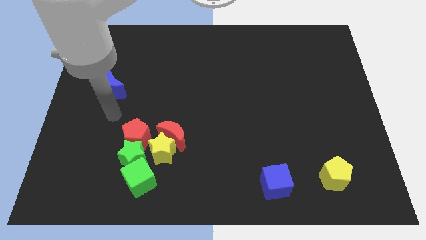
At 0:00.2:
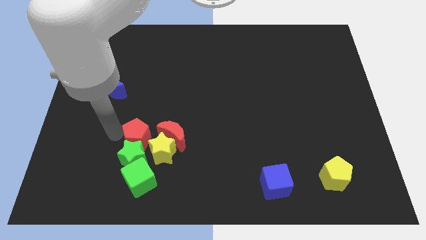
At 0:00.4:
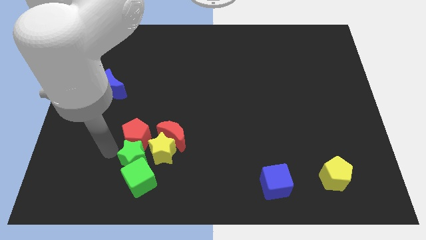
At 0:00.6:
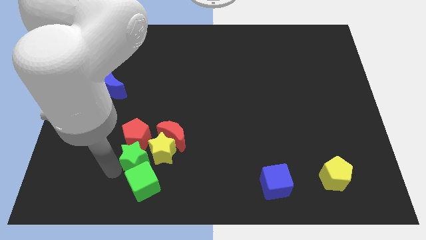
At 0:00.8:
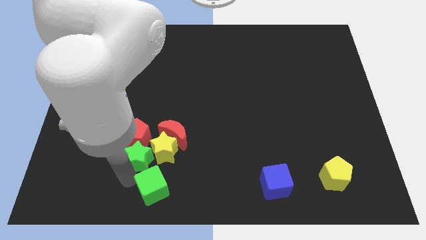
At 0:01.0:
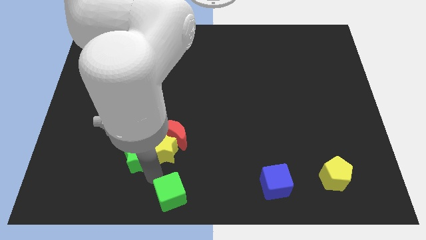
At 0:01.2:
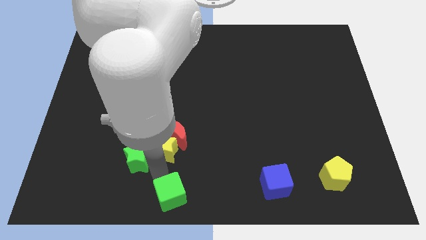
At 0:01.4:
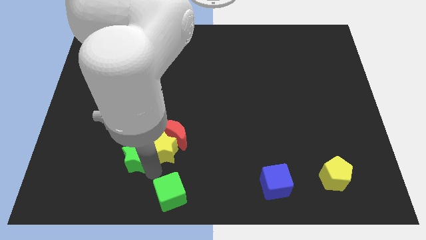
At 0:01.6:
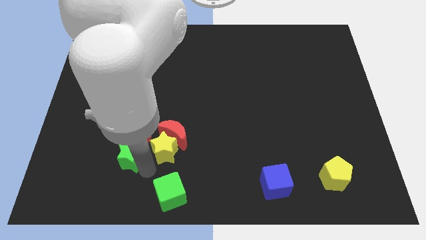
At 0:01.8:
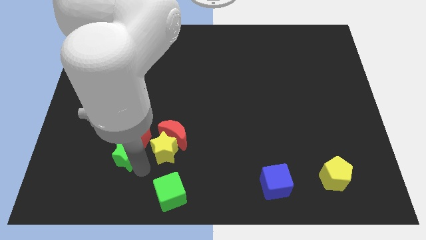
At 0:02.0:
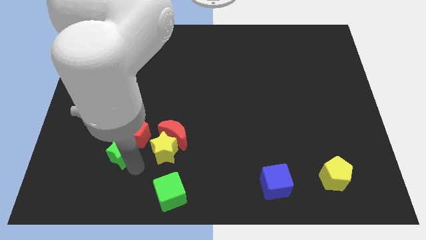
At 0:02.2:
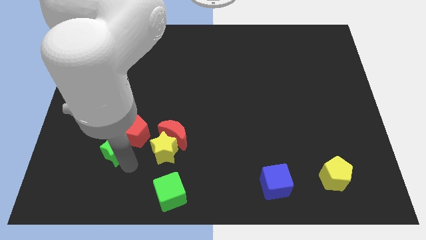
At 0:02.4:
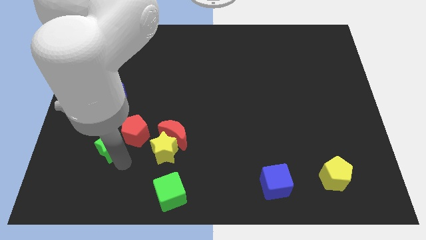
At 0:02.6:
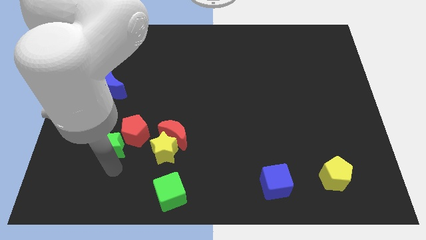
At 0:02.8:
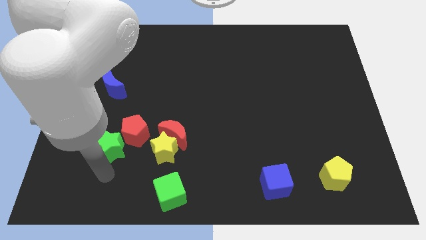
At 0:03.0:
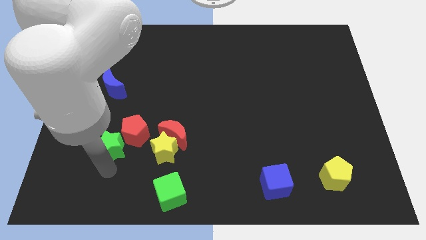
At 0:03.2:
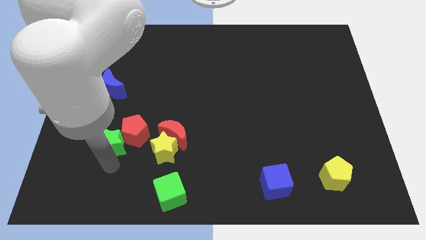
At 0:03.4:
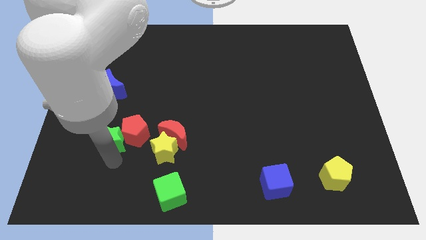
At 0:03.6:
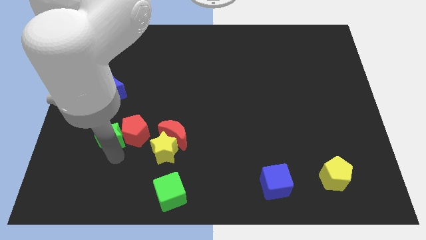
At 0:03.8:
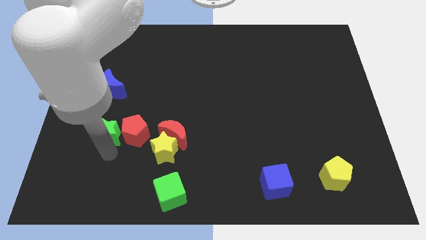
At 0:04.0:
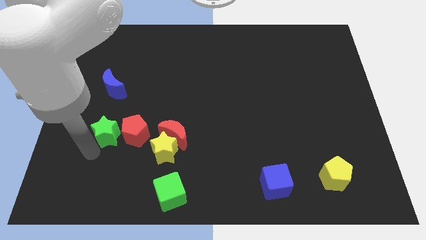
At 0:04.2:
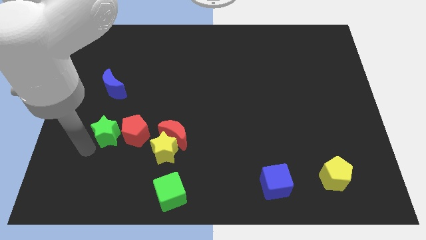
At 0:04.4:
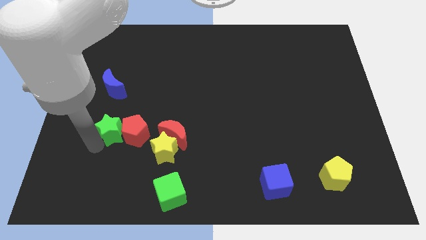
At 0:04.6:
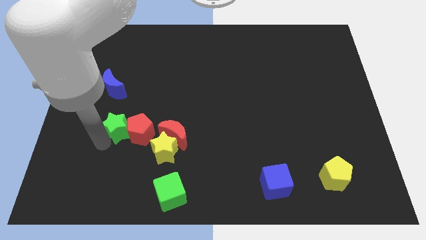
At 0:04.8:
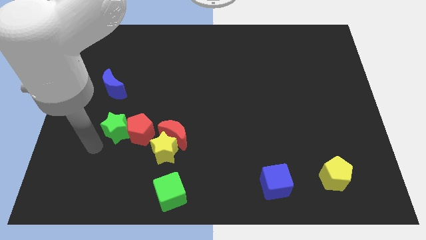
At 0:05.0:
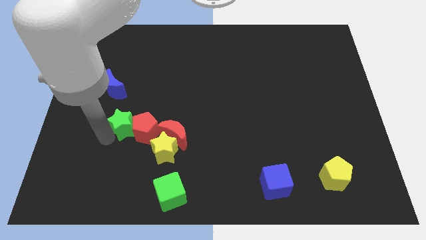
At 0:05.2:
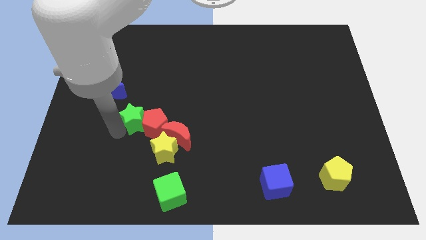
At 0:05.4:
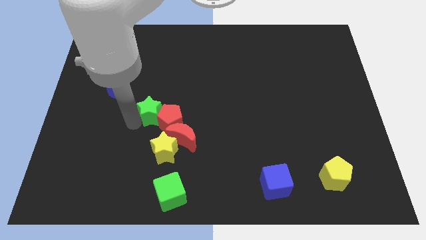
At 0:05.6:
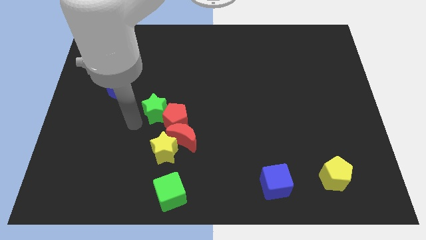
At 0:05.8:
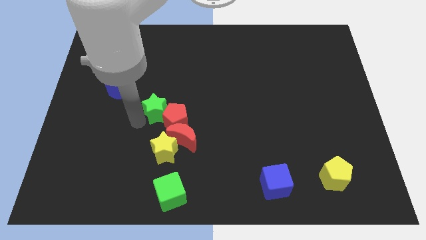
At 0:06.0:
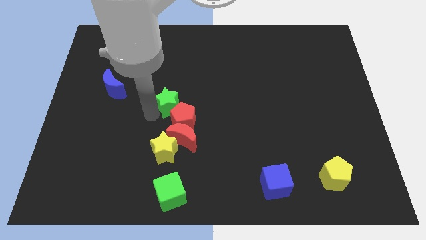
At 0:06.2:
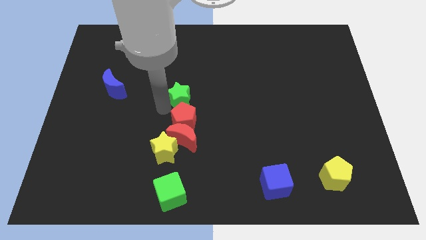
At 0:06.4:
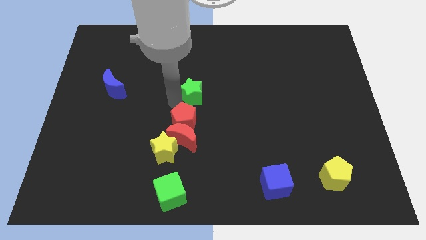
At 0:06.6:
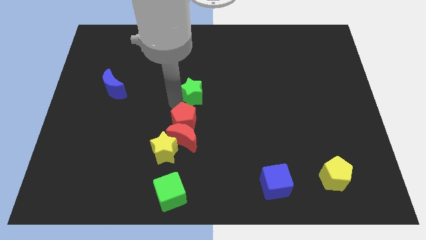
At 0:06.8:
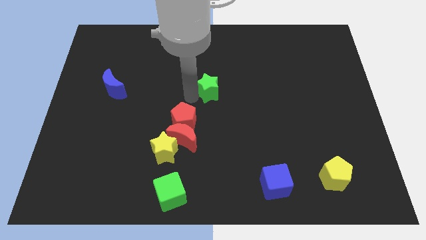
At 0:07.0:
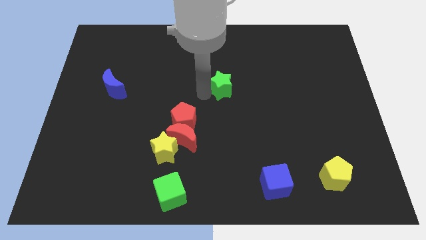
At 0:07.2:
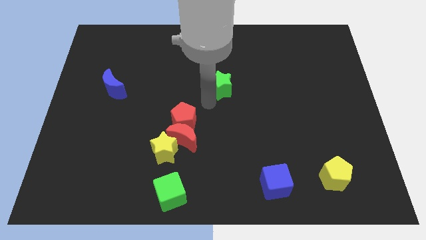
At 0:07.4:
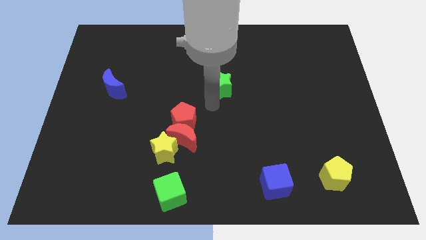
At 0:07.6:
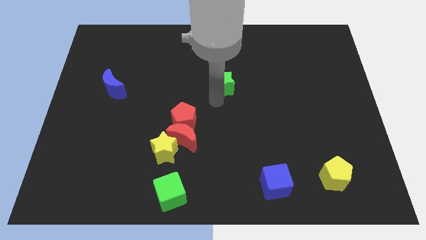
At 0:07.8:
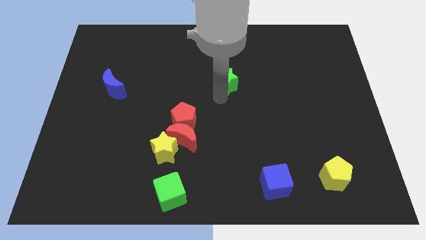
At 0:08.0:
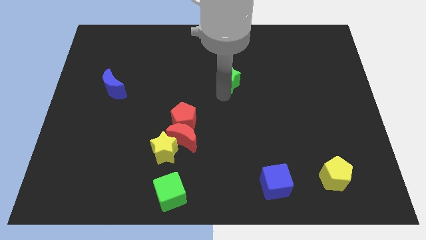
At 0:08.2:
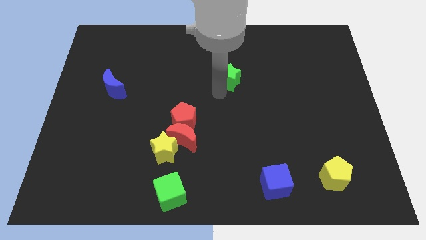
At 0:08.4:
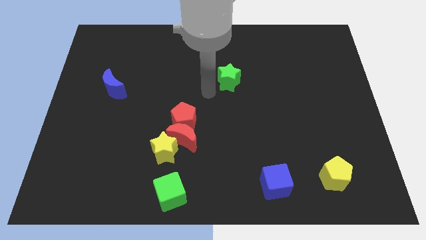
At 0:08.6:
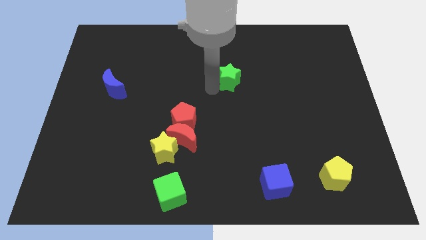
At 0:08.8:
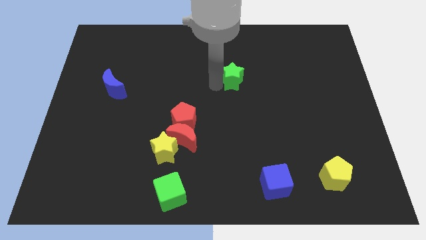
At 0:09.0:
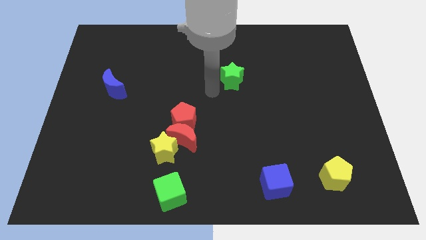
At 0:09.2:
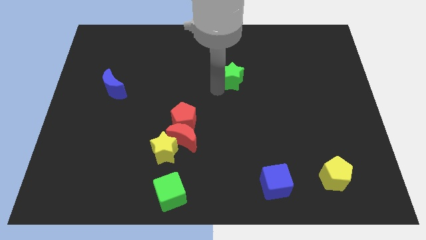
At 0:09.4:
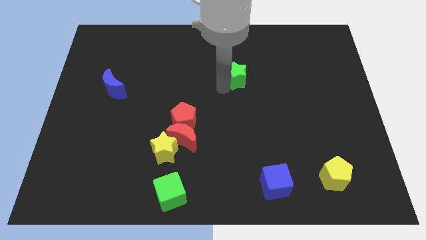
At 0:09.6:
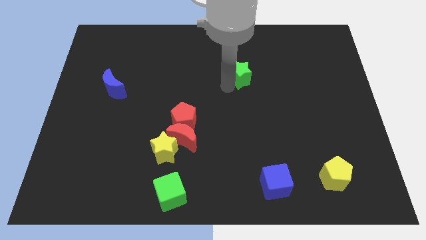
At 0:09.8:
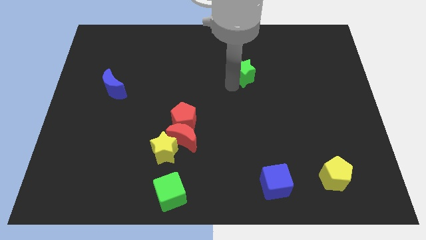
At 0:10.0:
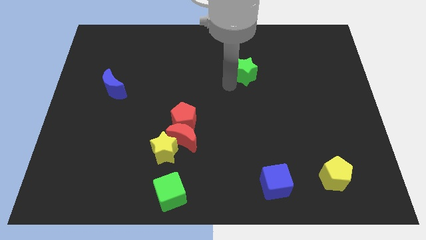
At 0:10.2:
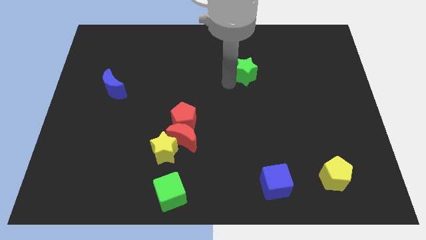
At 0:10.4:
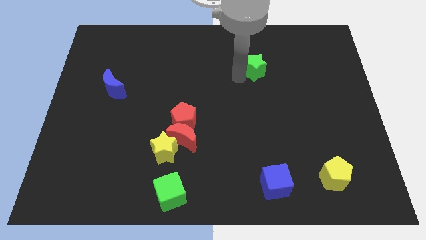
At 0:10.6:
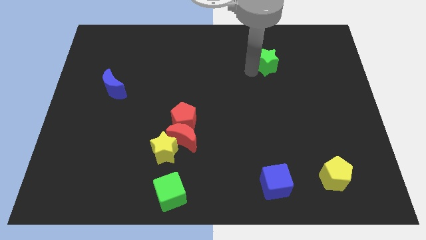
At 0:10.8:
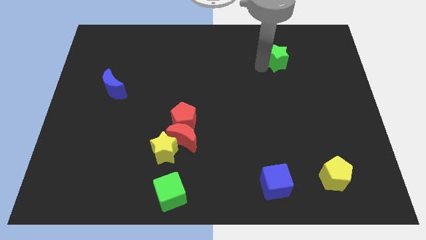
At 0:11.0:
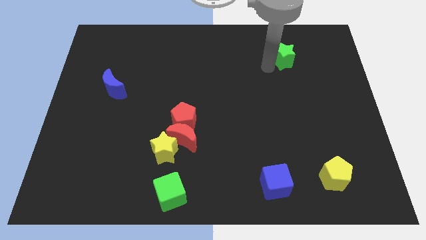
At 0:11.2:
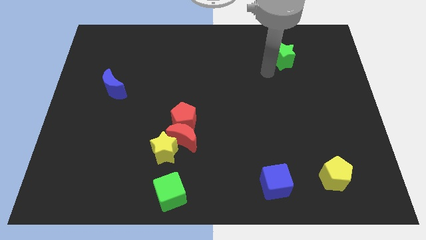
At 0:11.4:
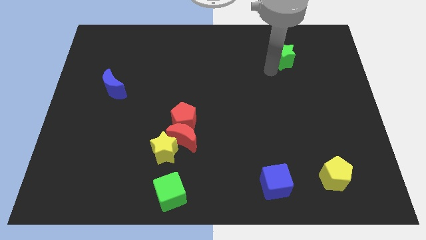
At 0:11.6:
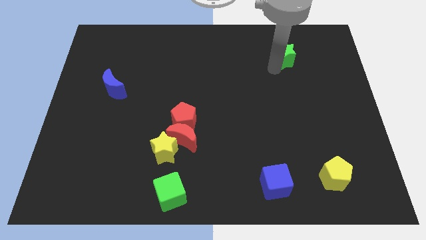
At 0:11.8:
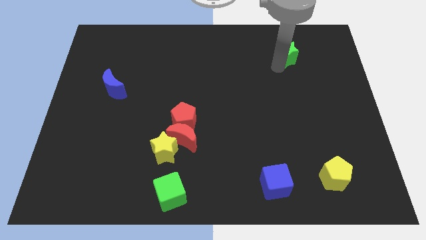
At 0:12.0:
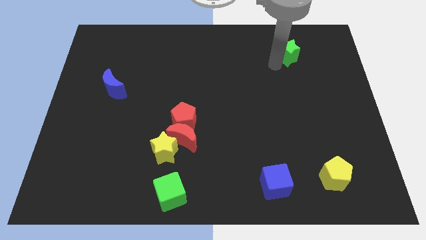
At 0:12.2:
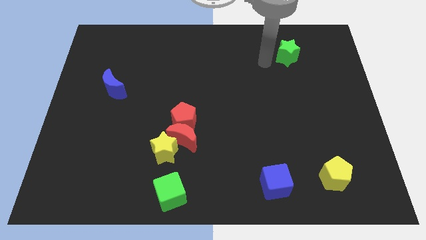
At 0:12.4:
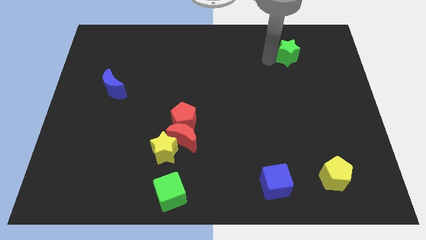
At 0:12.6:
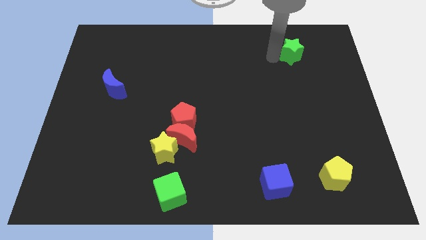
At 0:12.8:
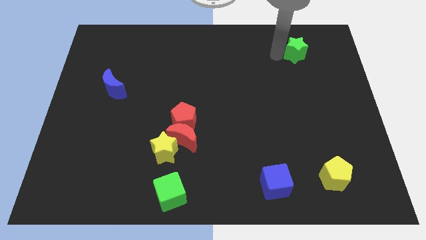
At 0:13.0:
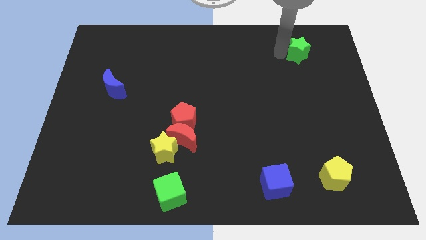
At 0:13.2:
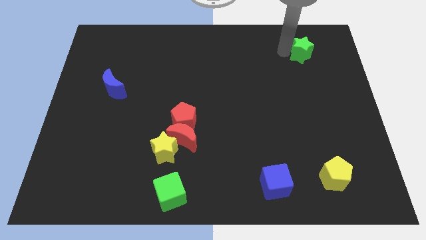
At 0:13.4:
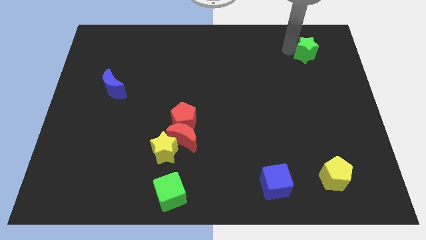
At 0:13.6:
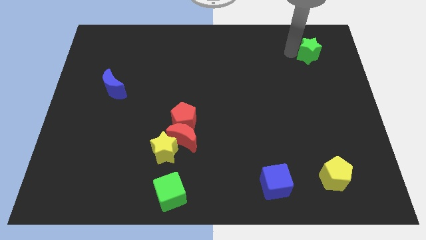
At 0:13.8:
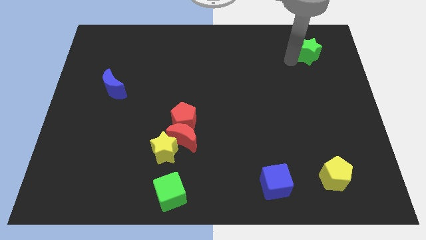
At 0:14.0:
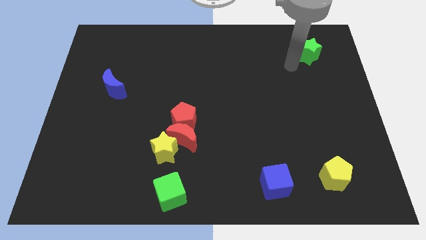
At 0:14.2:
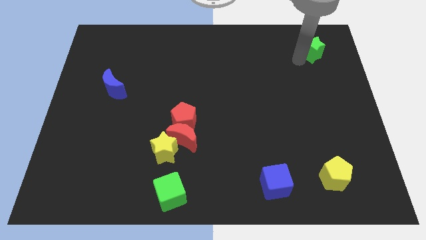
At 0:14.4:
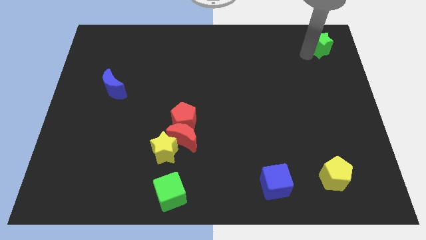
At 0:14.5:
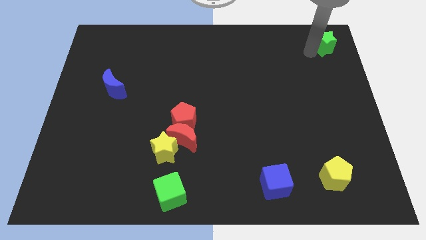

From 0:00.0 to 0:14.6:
move the green star to the upper right corner
